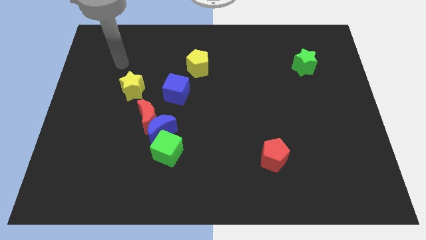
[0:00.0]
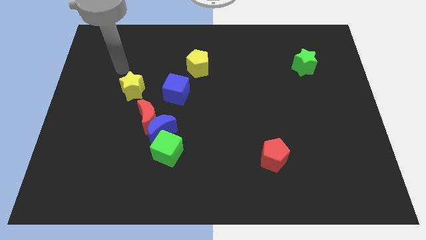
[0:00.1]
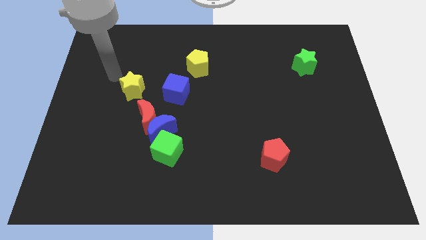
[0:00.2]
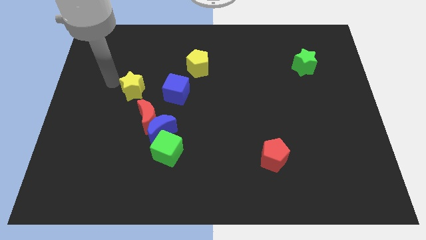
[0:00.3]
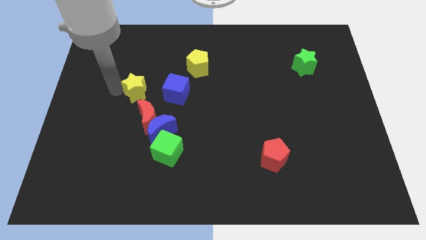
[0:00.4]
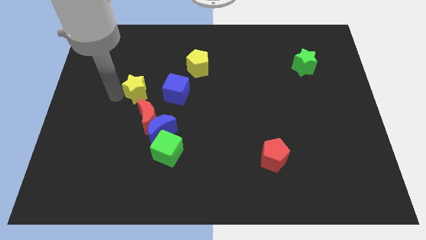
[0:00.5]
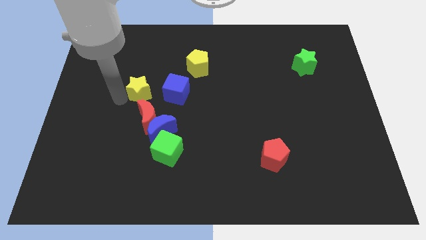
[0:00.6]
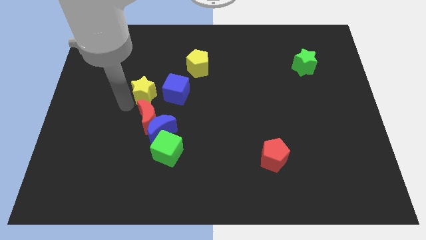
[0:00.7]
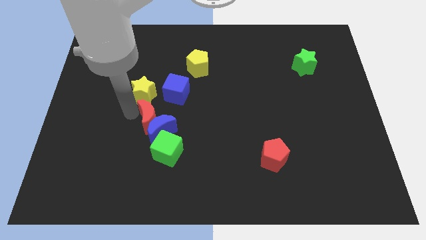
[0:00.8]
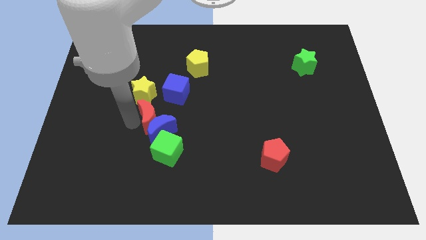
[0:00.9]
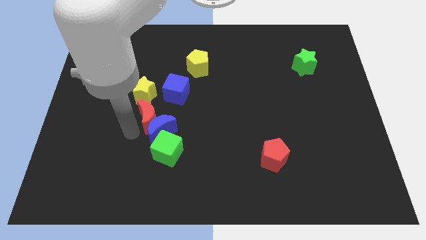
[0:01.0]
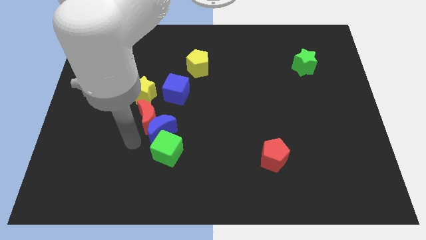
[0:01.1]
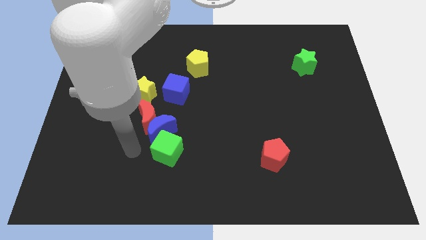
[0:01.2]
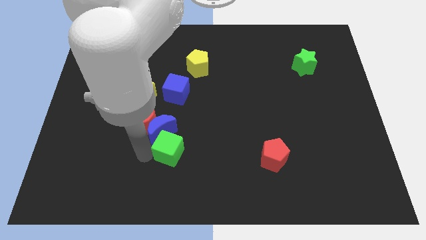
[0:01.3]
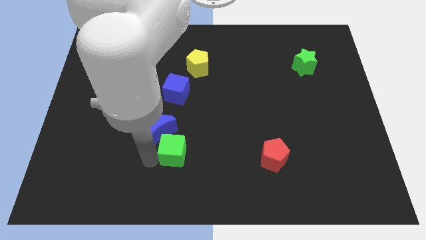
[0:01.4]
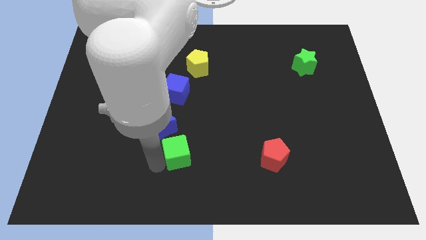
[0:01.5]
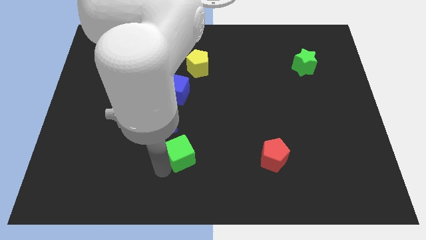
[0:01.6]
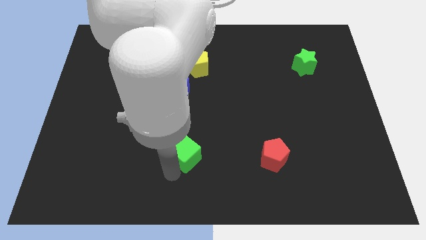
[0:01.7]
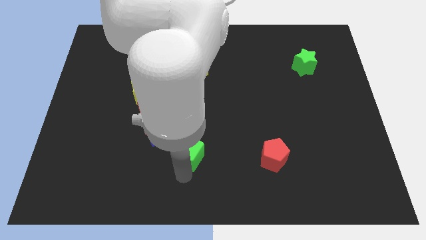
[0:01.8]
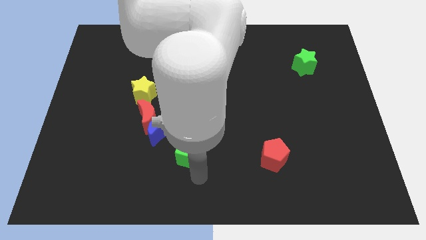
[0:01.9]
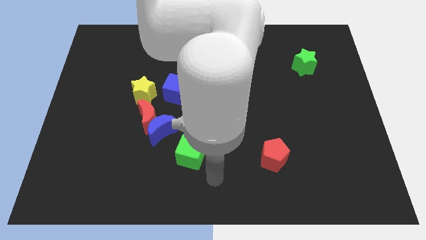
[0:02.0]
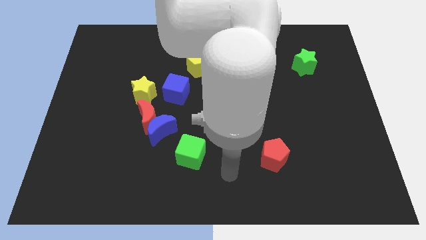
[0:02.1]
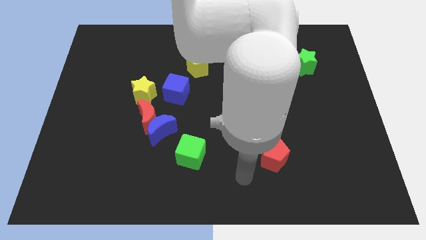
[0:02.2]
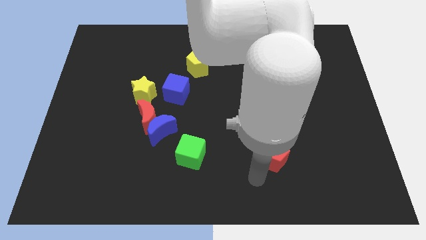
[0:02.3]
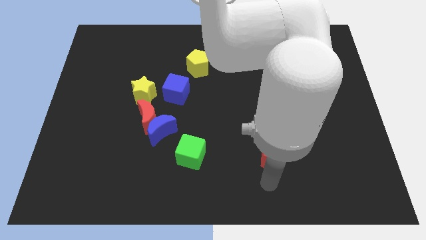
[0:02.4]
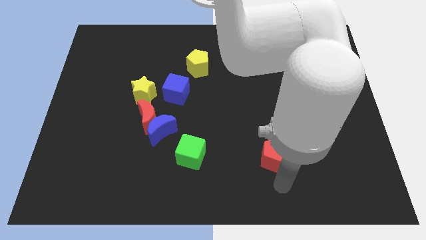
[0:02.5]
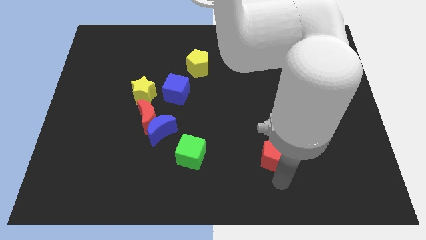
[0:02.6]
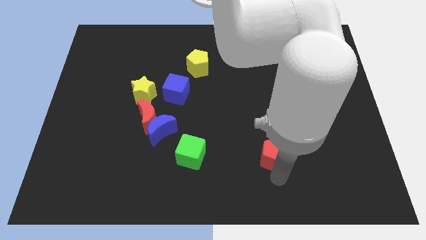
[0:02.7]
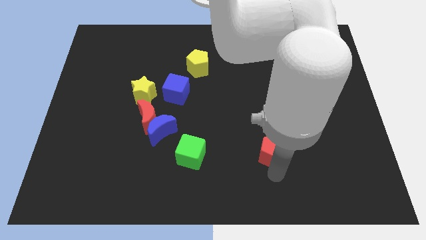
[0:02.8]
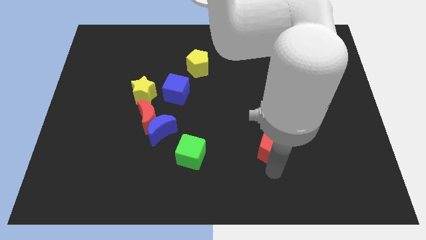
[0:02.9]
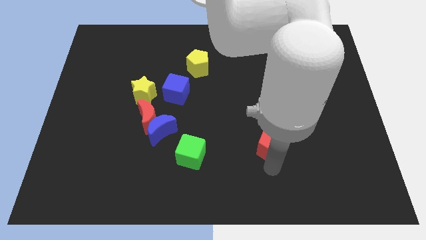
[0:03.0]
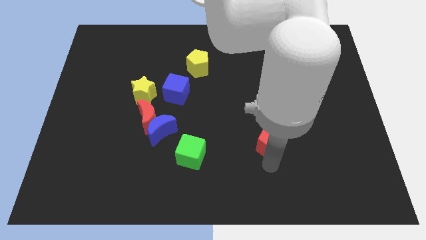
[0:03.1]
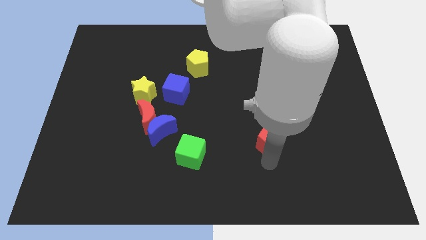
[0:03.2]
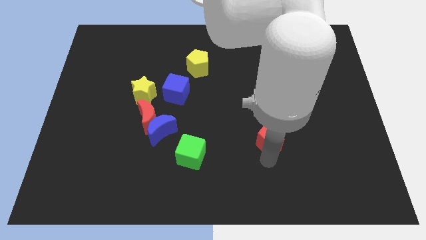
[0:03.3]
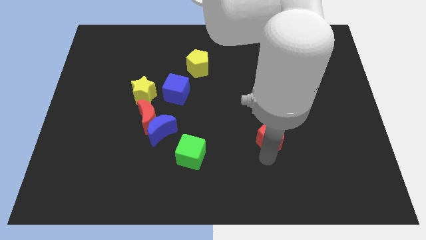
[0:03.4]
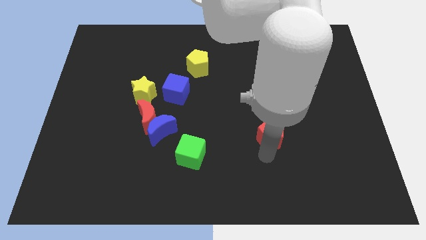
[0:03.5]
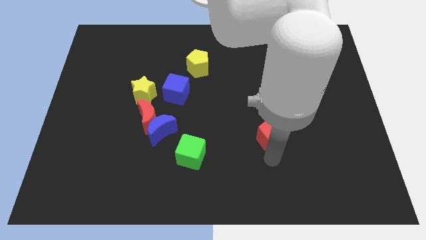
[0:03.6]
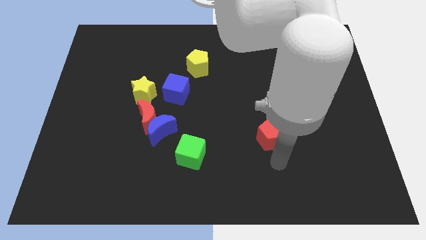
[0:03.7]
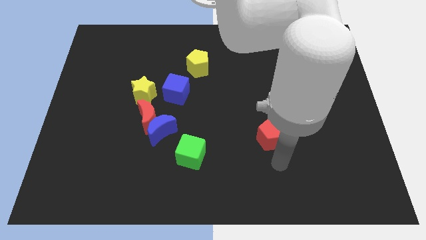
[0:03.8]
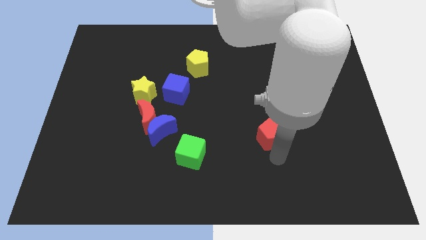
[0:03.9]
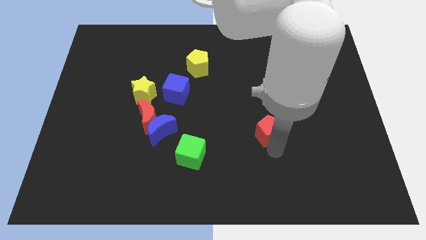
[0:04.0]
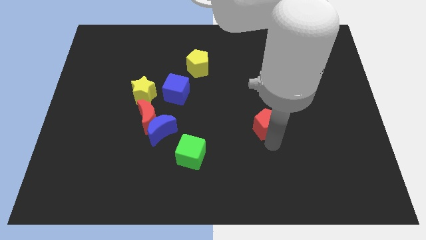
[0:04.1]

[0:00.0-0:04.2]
slide the red pentagon up somewhat

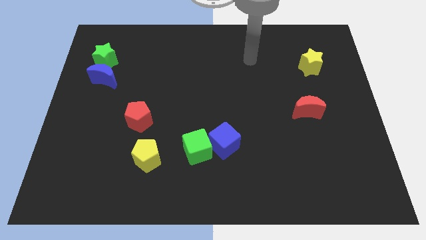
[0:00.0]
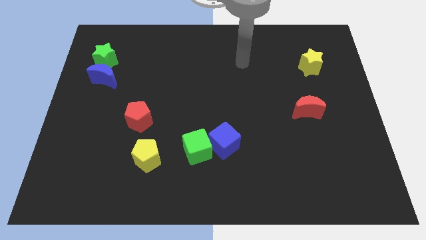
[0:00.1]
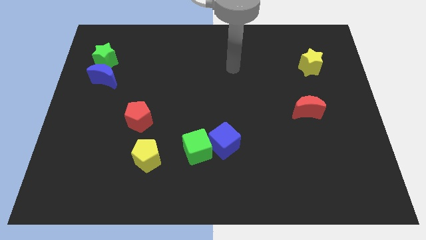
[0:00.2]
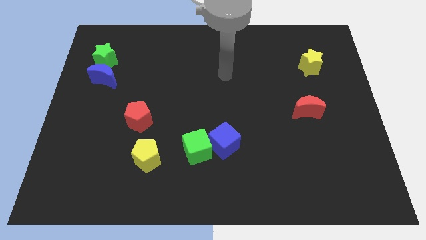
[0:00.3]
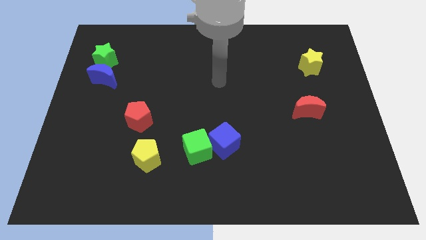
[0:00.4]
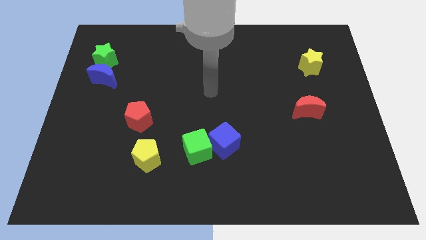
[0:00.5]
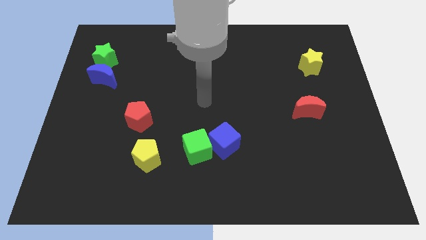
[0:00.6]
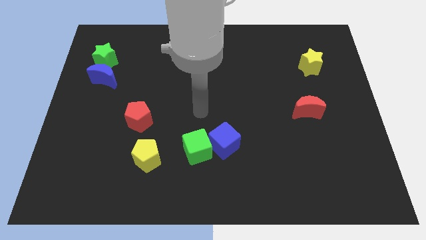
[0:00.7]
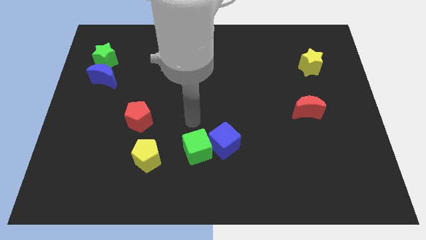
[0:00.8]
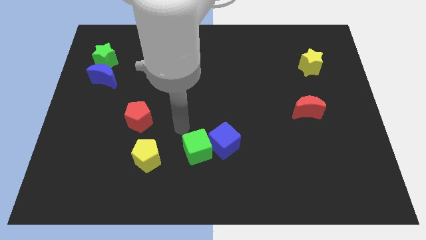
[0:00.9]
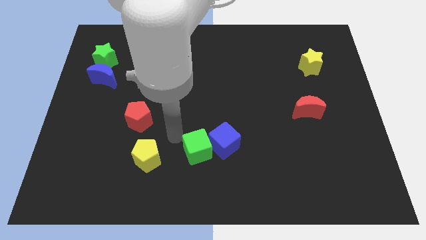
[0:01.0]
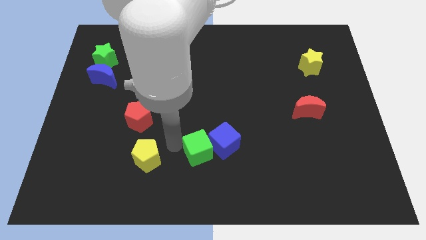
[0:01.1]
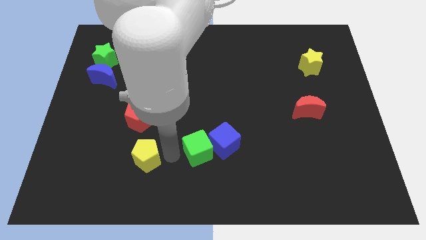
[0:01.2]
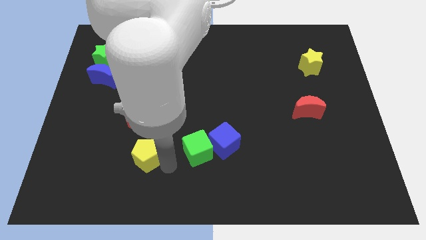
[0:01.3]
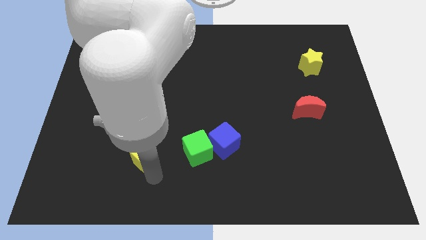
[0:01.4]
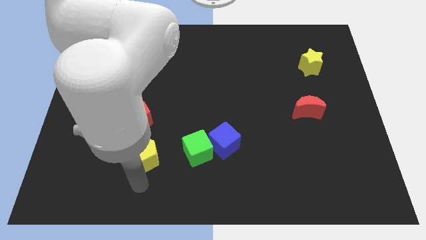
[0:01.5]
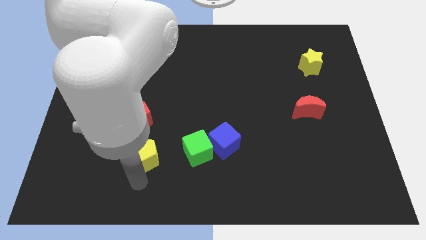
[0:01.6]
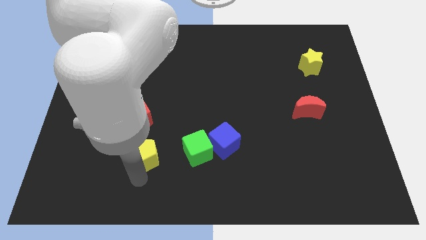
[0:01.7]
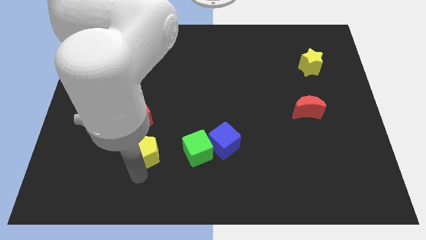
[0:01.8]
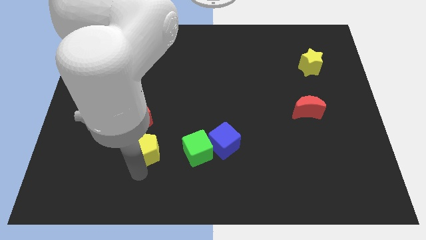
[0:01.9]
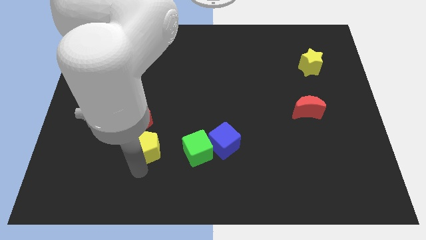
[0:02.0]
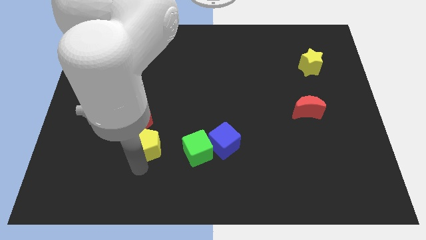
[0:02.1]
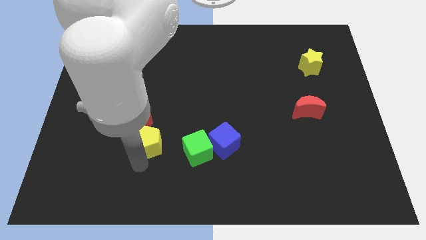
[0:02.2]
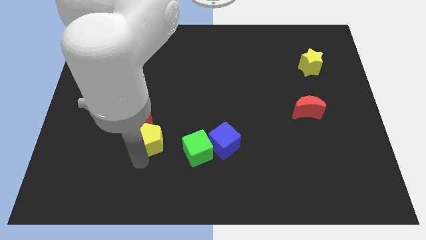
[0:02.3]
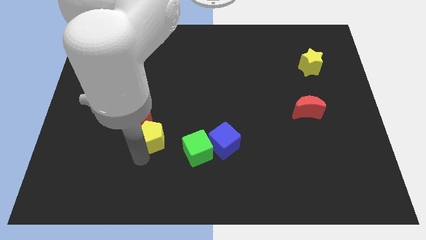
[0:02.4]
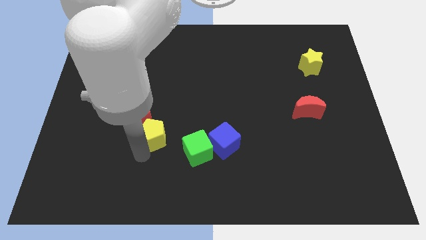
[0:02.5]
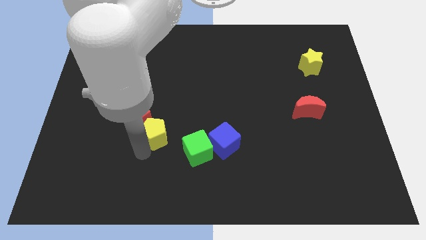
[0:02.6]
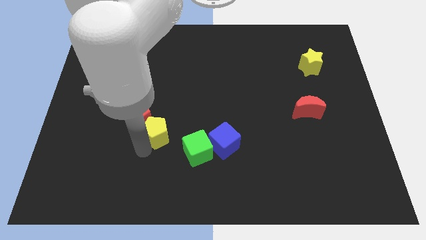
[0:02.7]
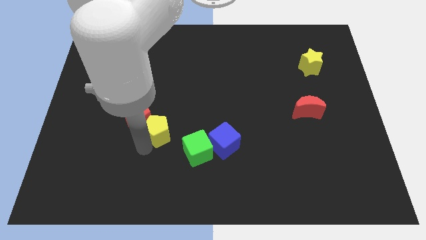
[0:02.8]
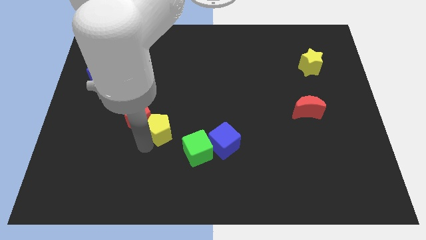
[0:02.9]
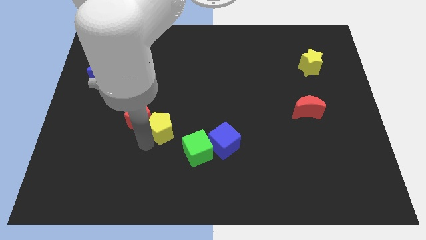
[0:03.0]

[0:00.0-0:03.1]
slide the yellow pentagon slightly up

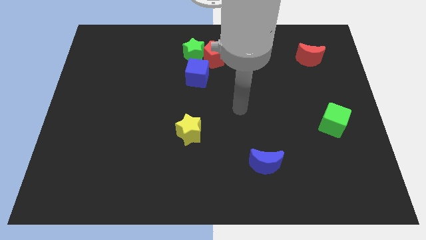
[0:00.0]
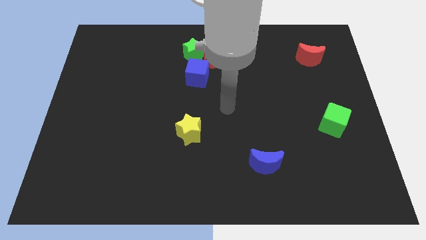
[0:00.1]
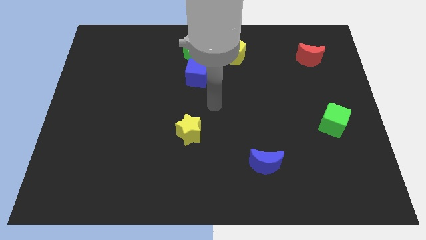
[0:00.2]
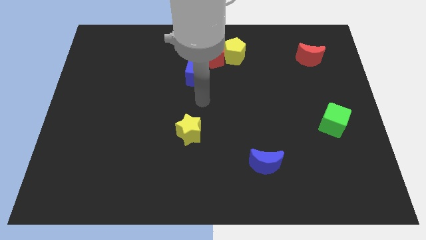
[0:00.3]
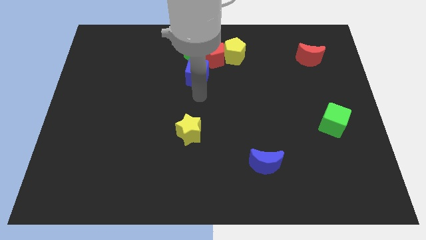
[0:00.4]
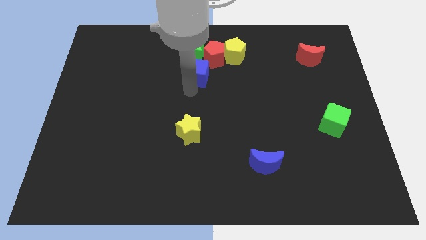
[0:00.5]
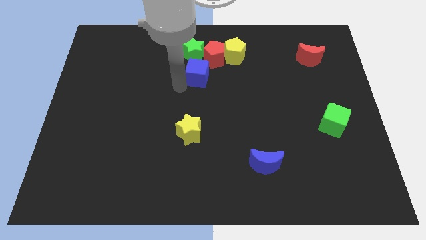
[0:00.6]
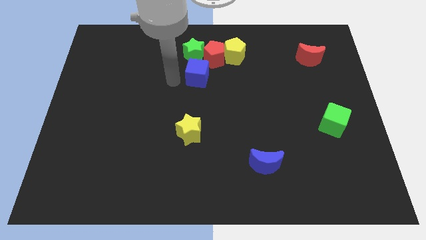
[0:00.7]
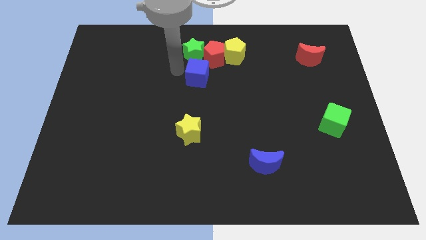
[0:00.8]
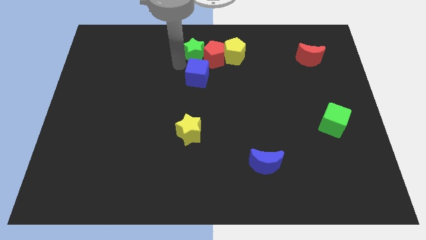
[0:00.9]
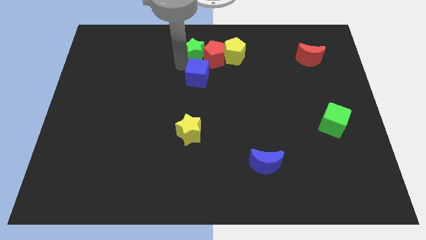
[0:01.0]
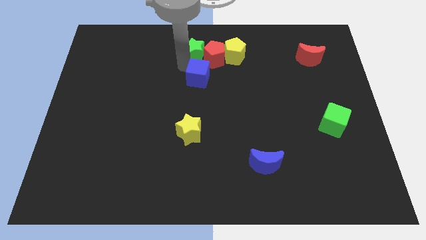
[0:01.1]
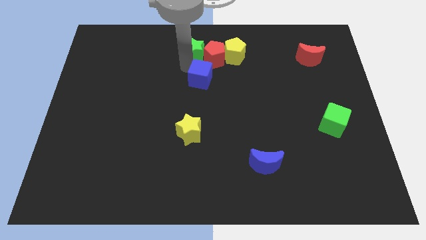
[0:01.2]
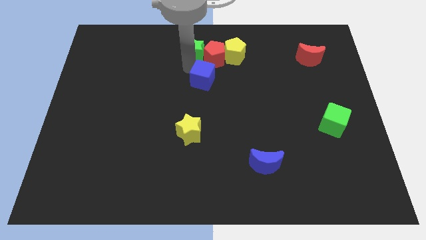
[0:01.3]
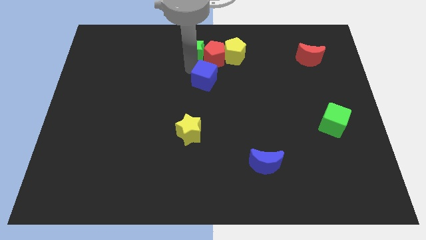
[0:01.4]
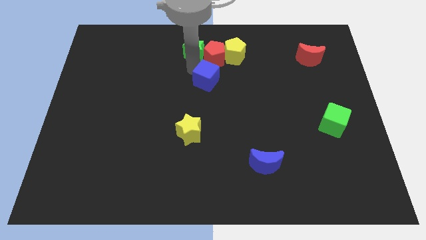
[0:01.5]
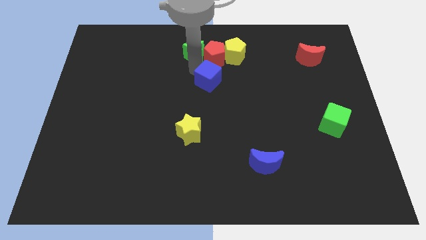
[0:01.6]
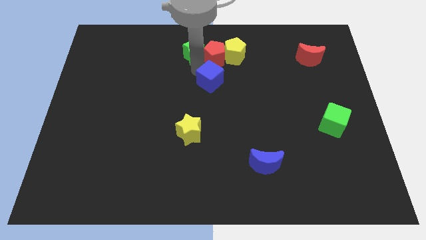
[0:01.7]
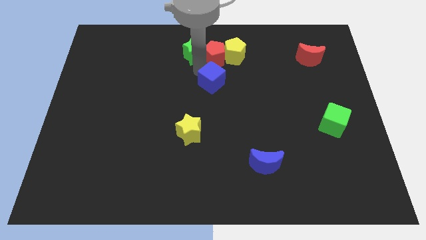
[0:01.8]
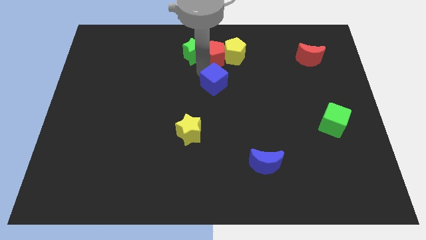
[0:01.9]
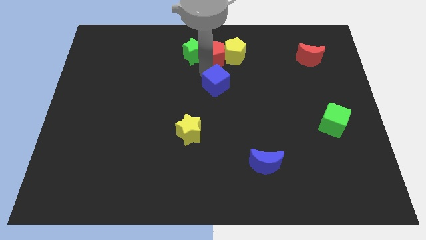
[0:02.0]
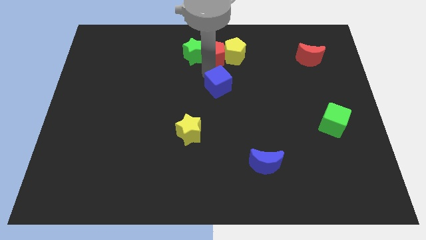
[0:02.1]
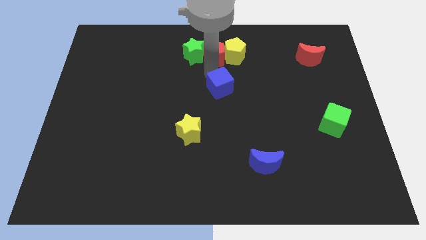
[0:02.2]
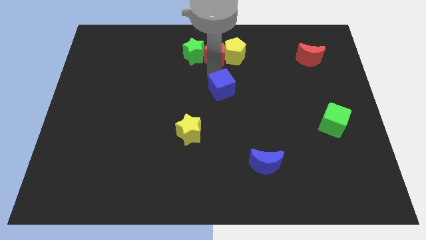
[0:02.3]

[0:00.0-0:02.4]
move the blue cube diagonally down and right a bit
